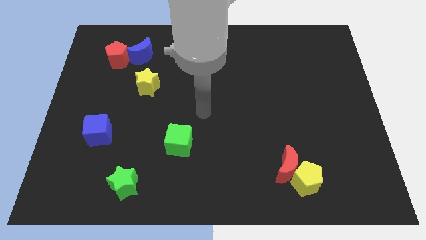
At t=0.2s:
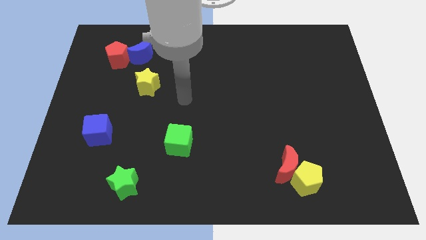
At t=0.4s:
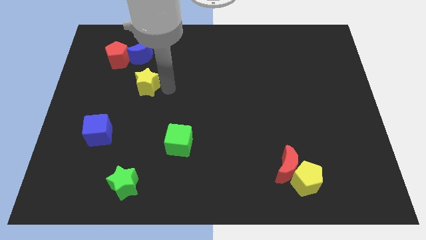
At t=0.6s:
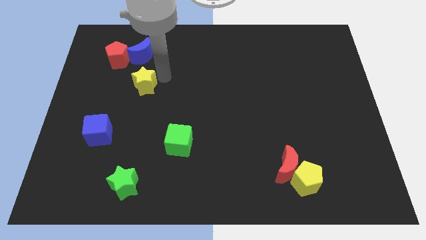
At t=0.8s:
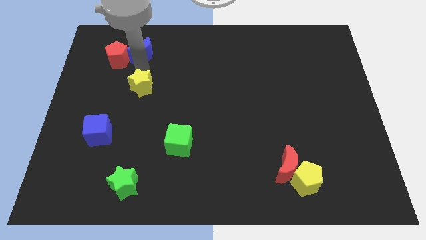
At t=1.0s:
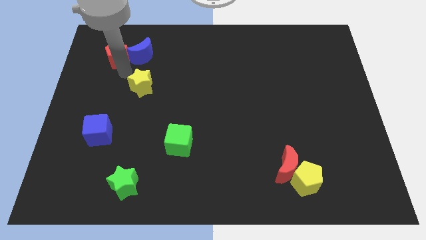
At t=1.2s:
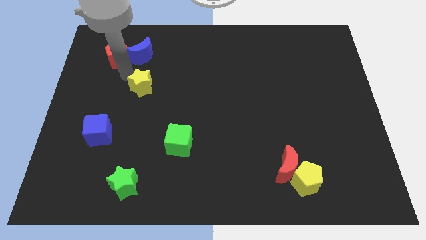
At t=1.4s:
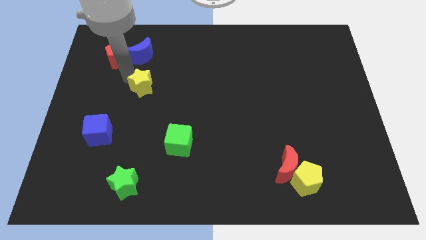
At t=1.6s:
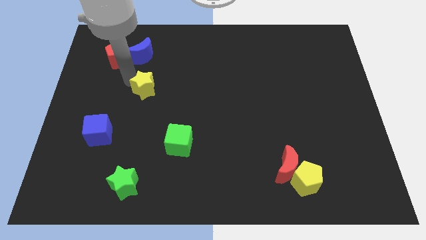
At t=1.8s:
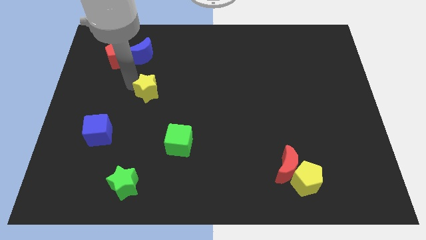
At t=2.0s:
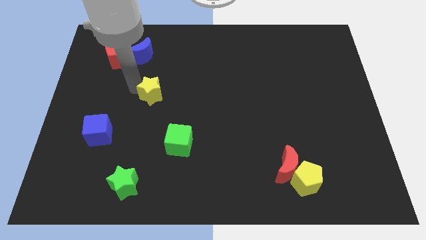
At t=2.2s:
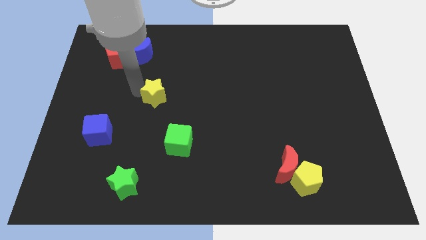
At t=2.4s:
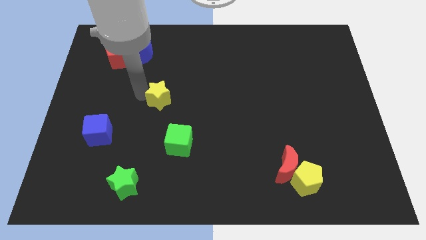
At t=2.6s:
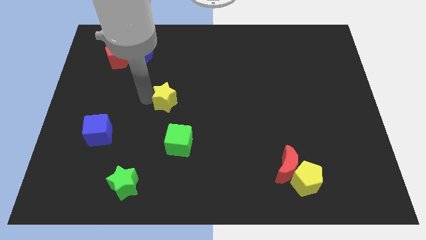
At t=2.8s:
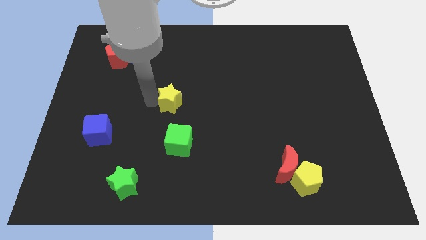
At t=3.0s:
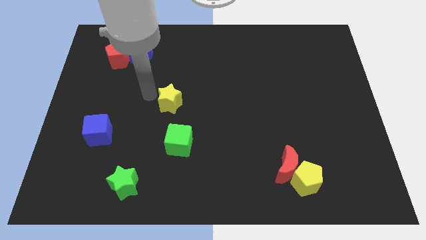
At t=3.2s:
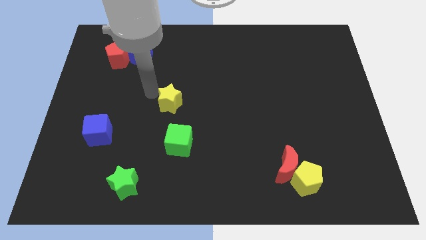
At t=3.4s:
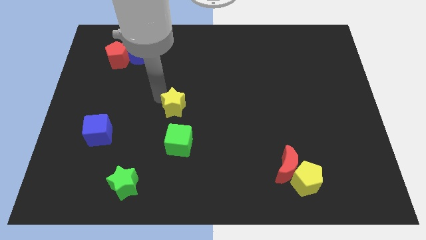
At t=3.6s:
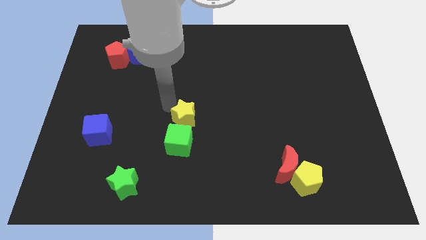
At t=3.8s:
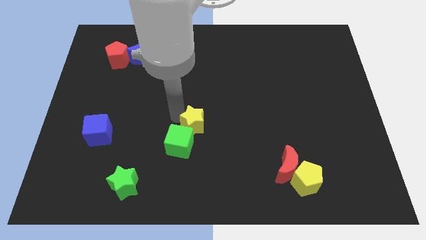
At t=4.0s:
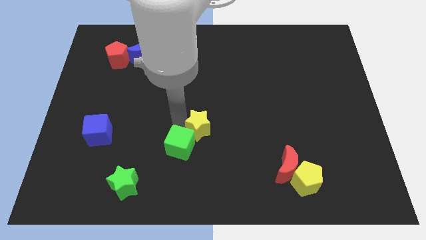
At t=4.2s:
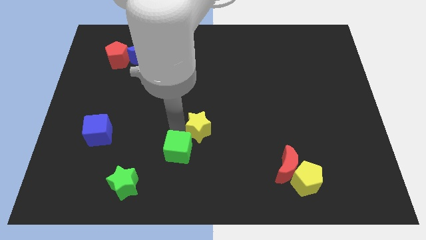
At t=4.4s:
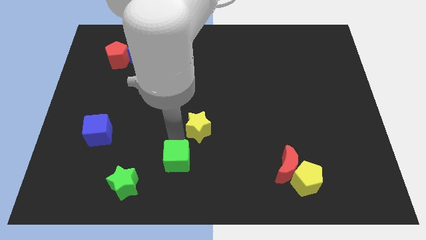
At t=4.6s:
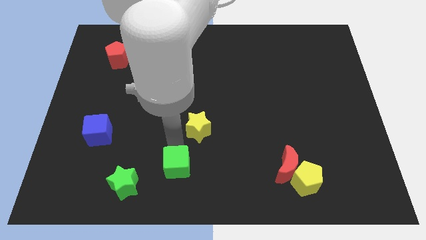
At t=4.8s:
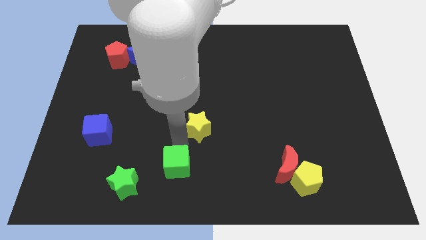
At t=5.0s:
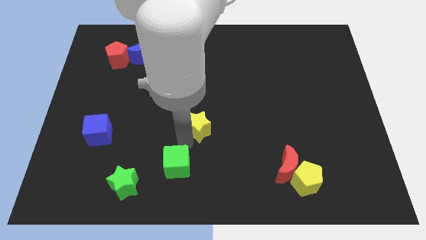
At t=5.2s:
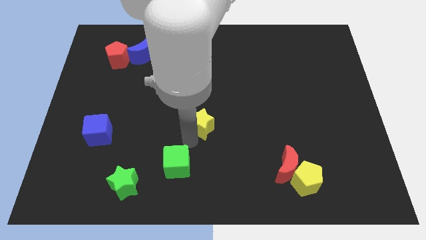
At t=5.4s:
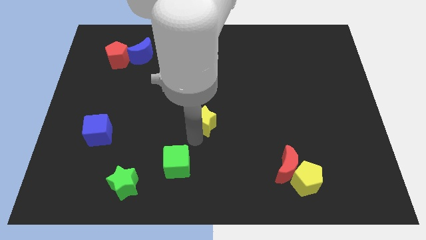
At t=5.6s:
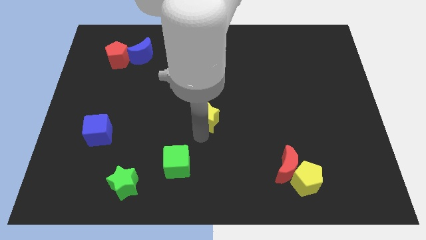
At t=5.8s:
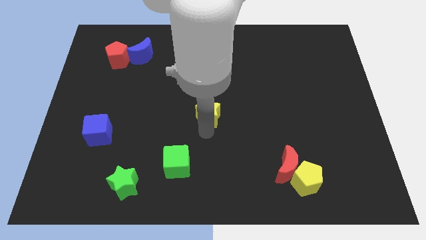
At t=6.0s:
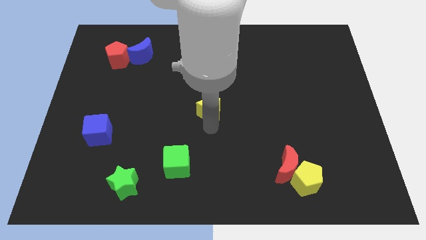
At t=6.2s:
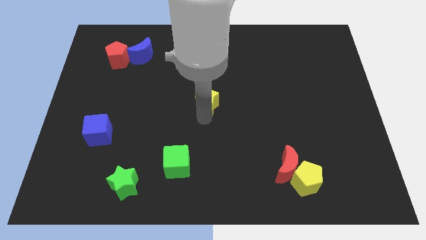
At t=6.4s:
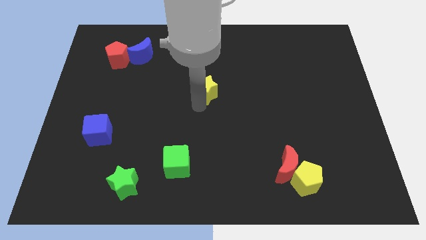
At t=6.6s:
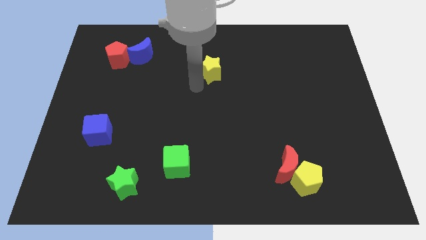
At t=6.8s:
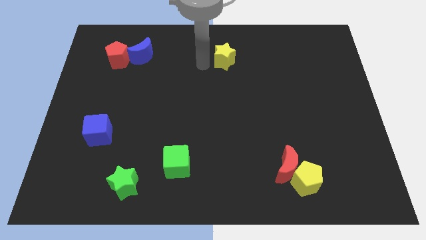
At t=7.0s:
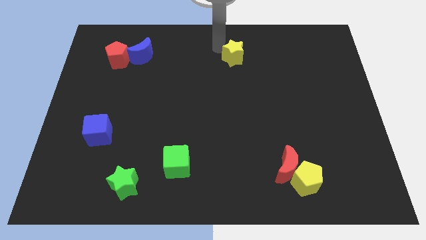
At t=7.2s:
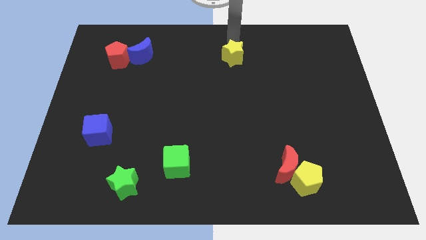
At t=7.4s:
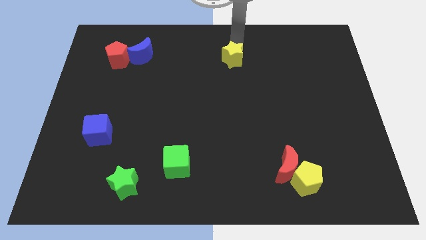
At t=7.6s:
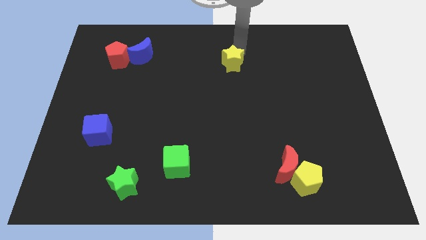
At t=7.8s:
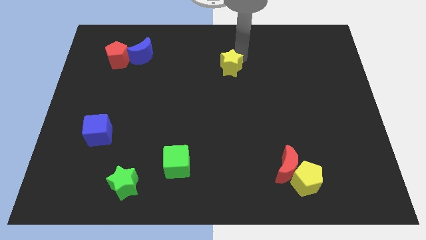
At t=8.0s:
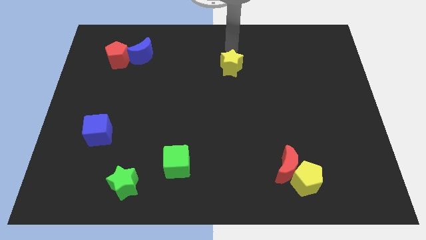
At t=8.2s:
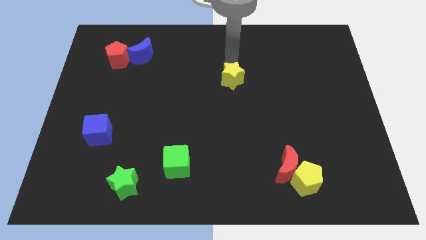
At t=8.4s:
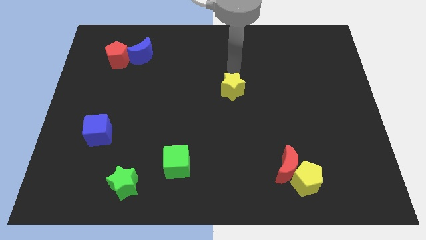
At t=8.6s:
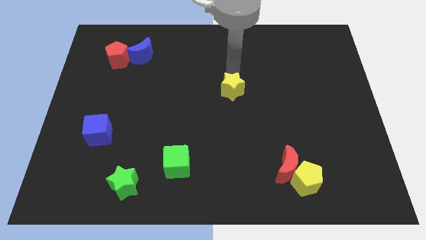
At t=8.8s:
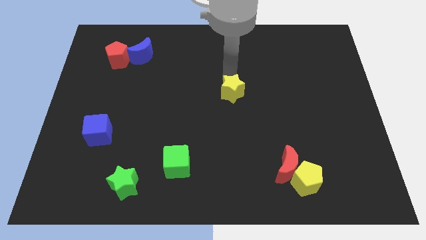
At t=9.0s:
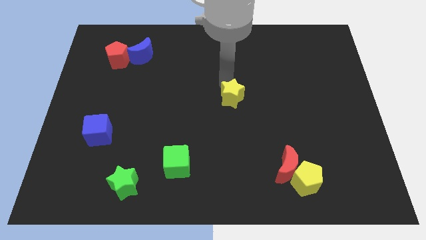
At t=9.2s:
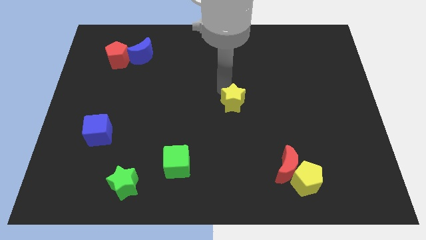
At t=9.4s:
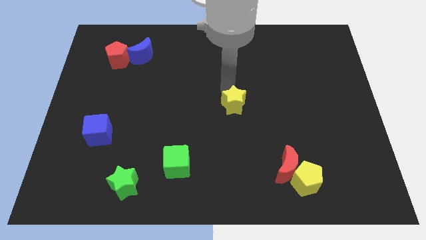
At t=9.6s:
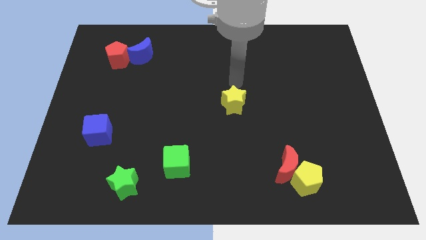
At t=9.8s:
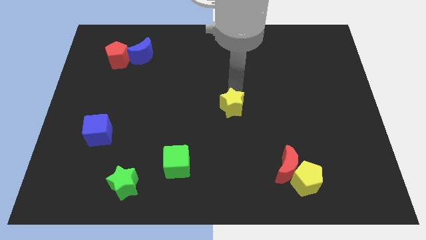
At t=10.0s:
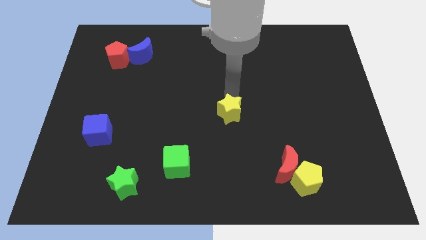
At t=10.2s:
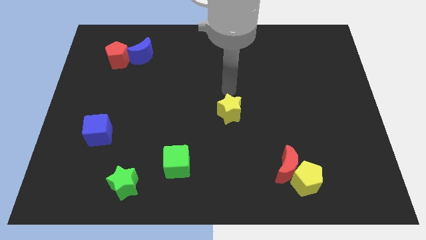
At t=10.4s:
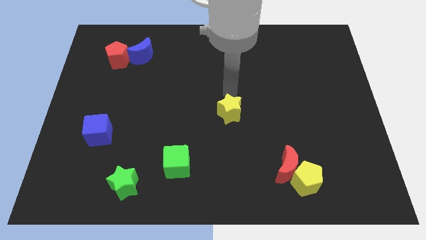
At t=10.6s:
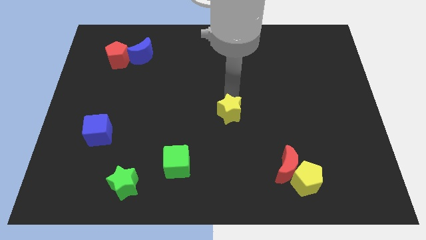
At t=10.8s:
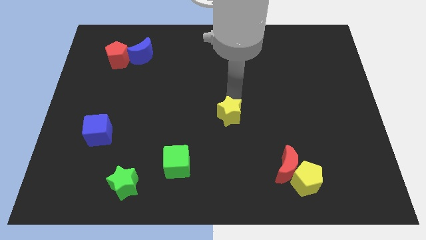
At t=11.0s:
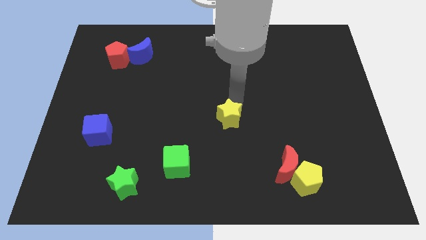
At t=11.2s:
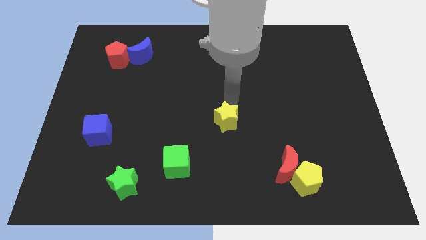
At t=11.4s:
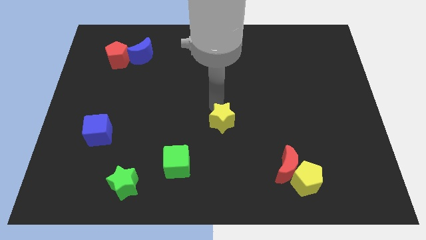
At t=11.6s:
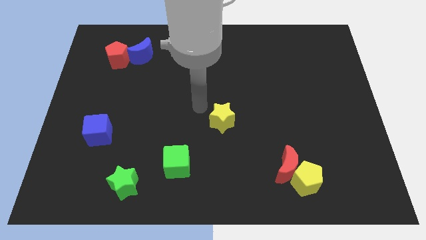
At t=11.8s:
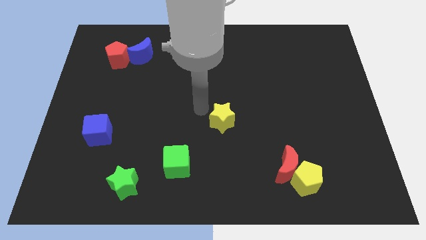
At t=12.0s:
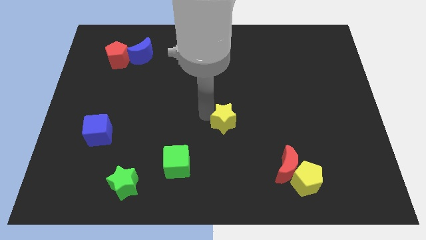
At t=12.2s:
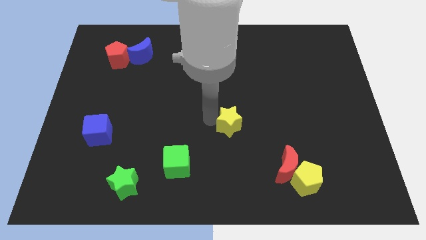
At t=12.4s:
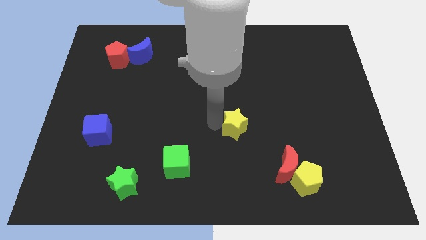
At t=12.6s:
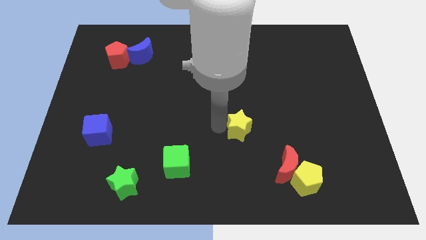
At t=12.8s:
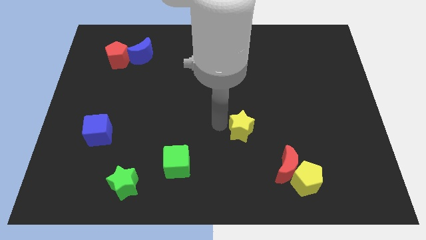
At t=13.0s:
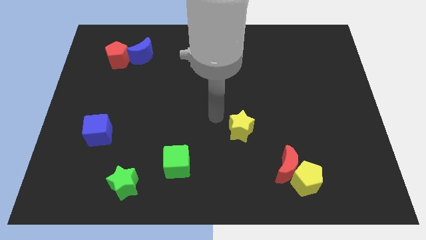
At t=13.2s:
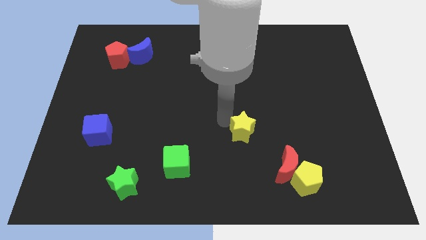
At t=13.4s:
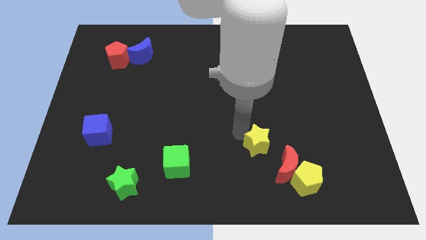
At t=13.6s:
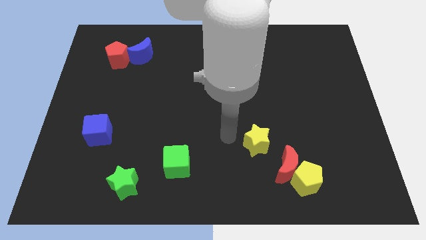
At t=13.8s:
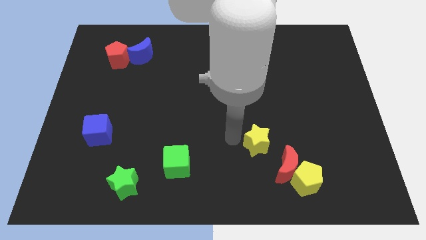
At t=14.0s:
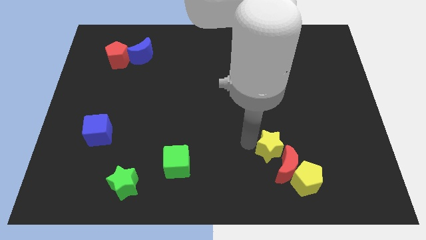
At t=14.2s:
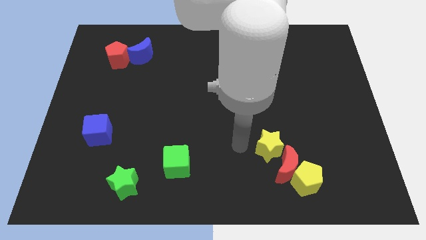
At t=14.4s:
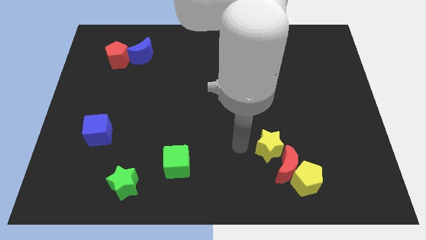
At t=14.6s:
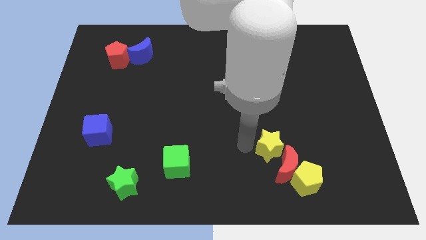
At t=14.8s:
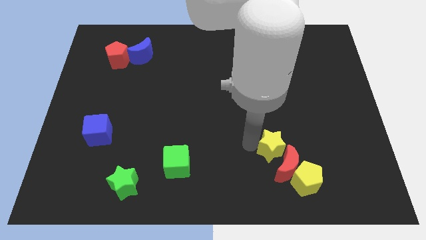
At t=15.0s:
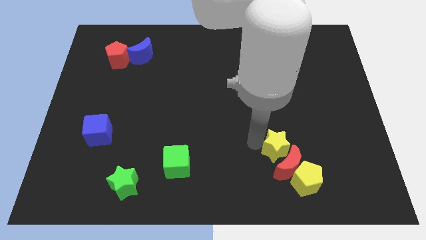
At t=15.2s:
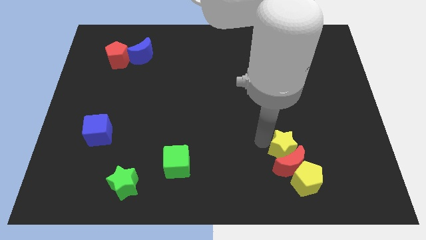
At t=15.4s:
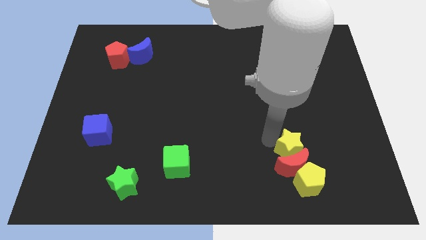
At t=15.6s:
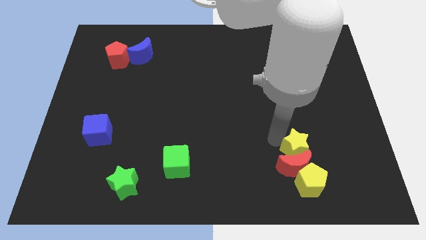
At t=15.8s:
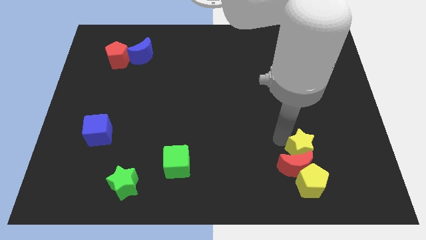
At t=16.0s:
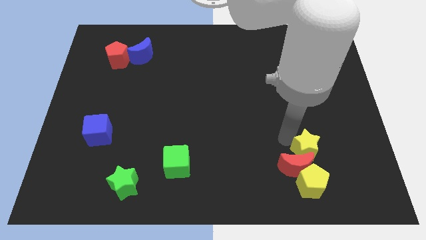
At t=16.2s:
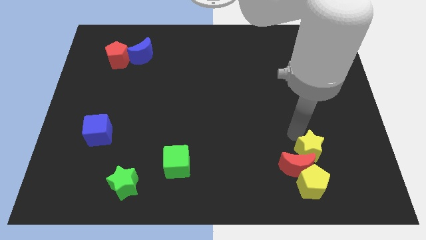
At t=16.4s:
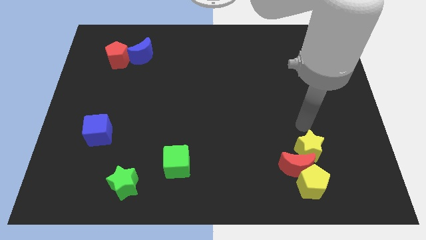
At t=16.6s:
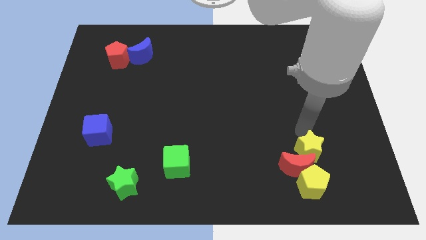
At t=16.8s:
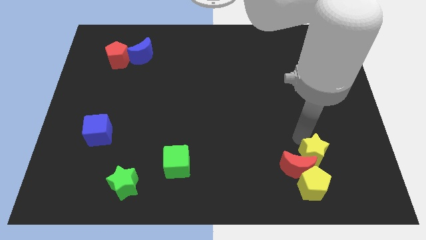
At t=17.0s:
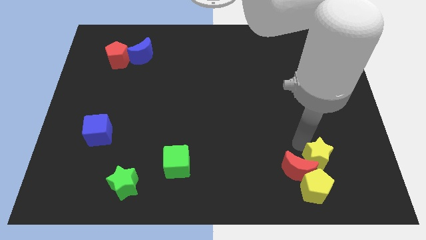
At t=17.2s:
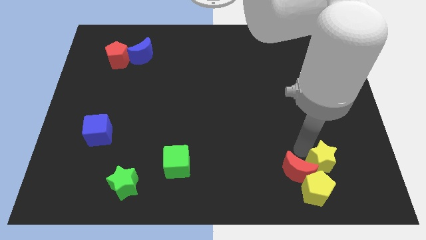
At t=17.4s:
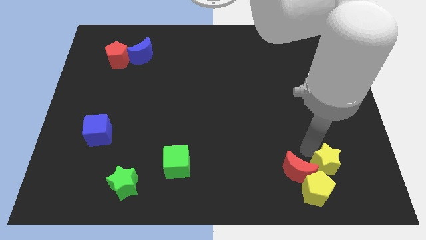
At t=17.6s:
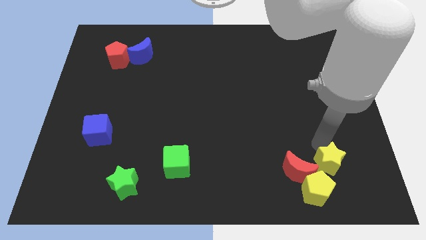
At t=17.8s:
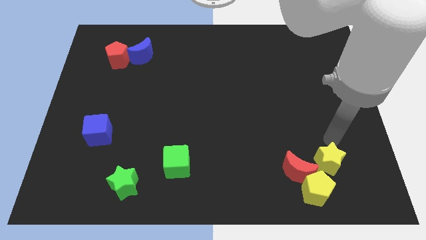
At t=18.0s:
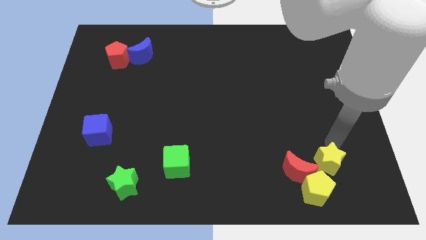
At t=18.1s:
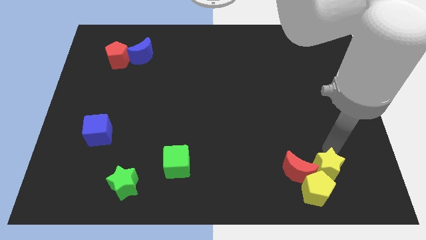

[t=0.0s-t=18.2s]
move the yellow star towards the yellow pentagon
